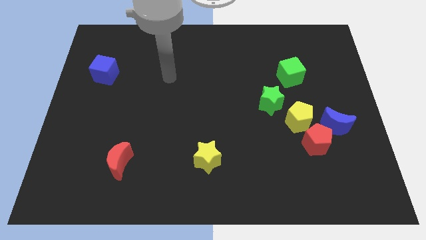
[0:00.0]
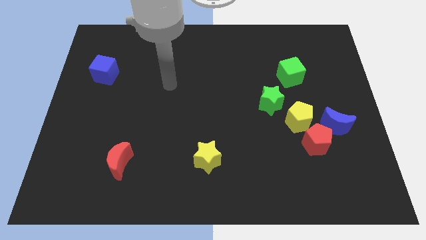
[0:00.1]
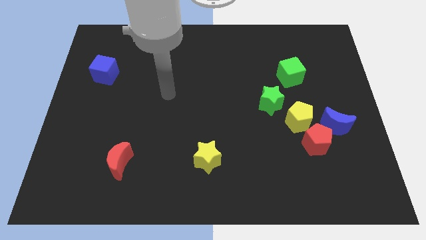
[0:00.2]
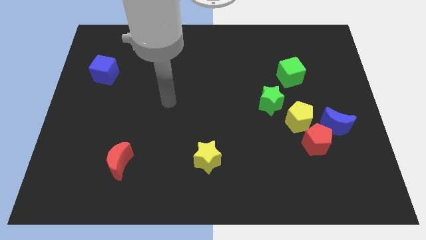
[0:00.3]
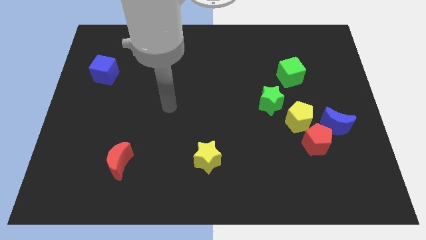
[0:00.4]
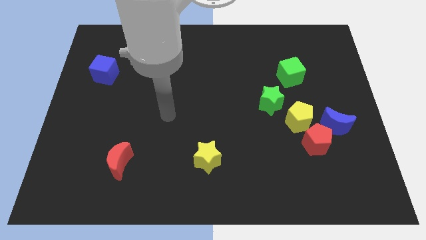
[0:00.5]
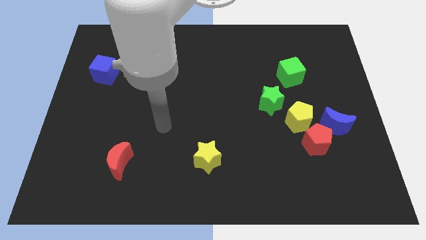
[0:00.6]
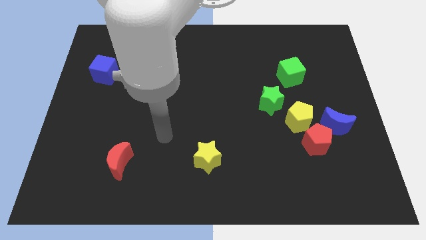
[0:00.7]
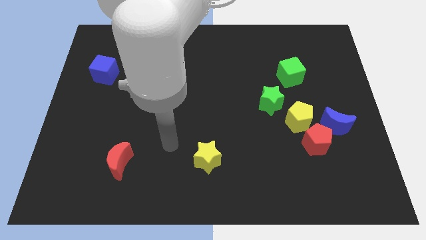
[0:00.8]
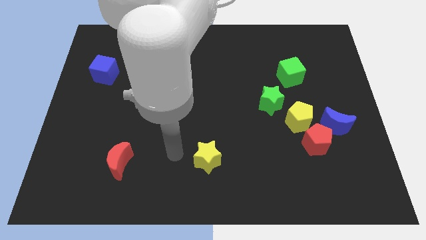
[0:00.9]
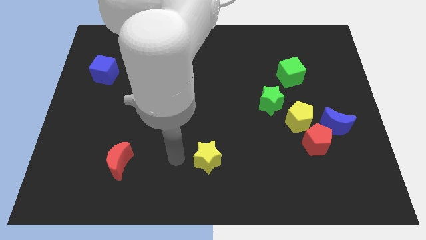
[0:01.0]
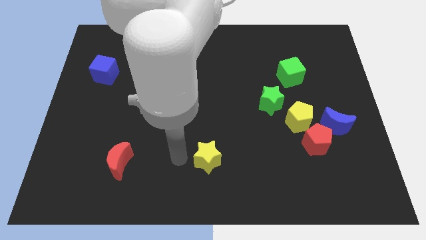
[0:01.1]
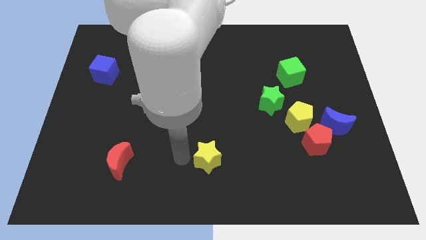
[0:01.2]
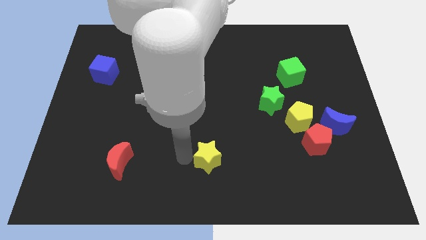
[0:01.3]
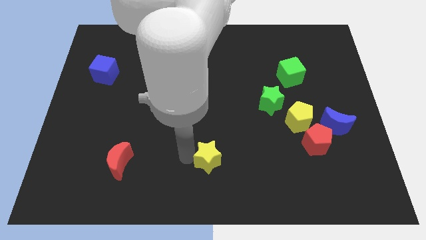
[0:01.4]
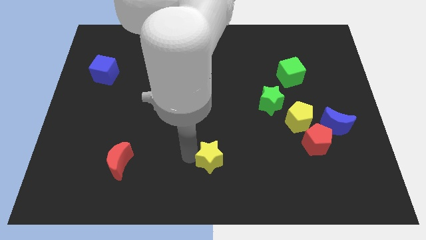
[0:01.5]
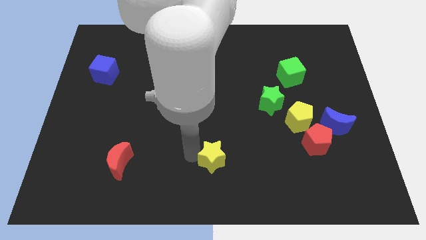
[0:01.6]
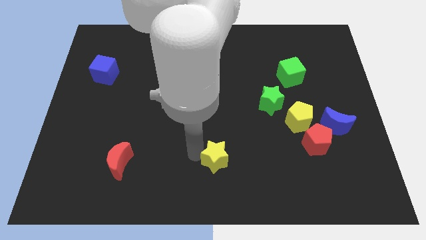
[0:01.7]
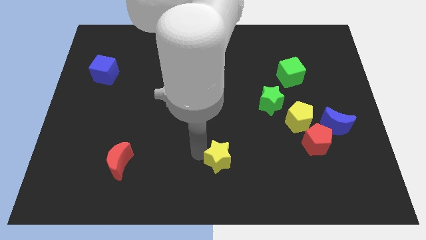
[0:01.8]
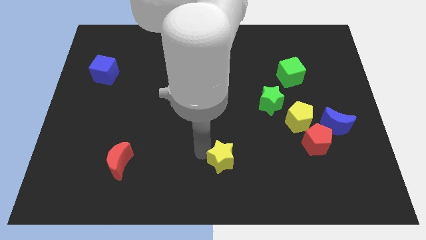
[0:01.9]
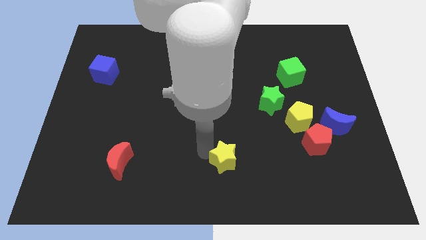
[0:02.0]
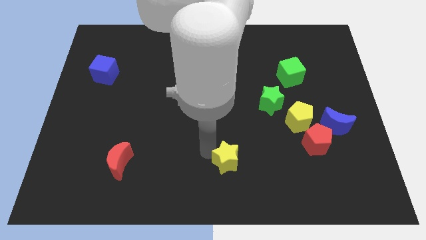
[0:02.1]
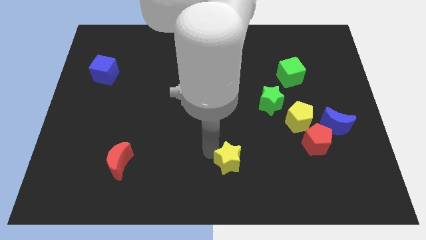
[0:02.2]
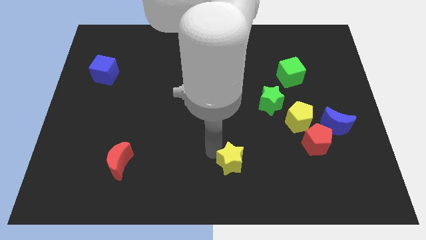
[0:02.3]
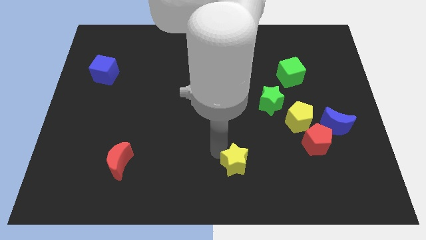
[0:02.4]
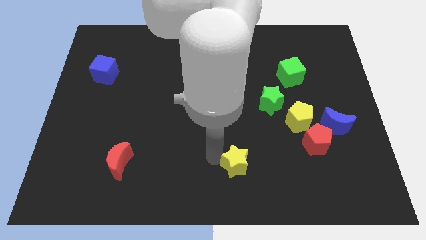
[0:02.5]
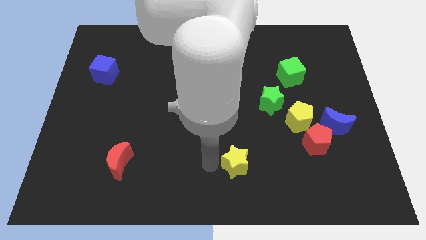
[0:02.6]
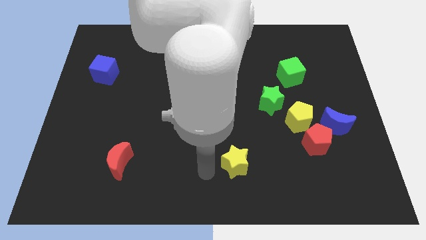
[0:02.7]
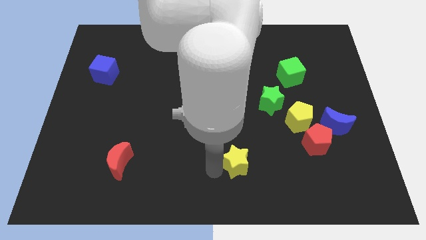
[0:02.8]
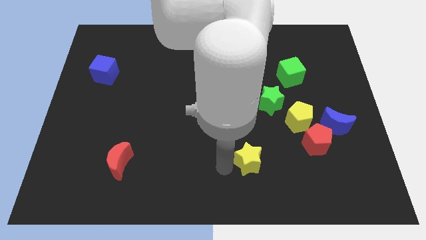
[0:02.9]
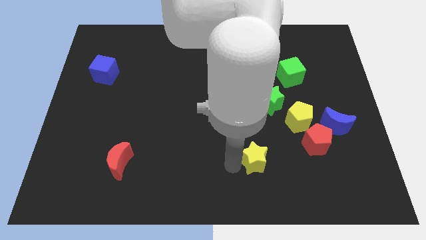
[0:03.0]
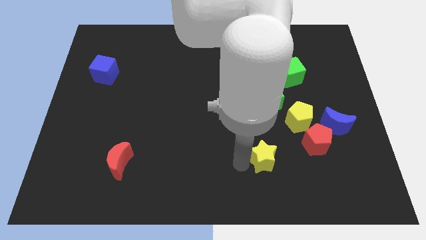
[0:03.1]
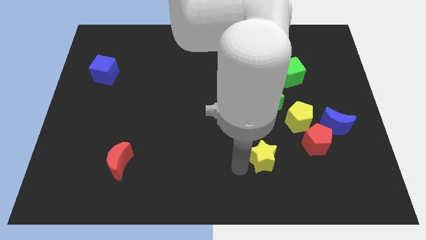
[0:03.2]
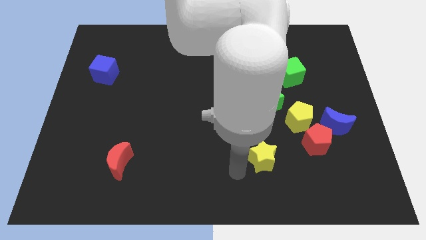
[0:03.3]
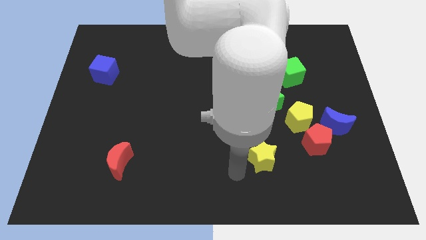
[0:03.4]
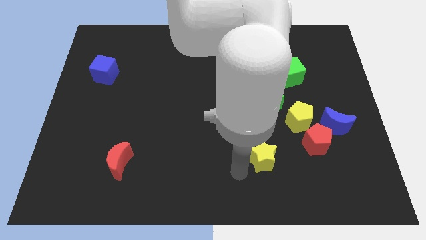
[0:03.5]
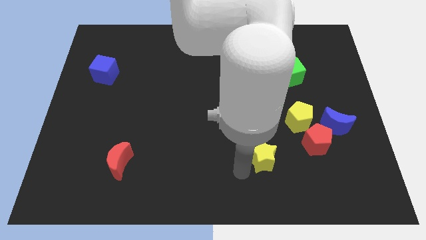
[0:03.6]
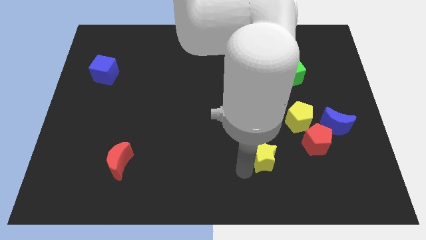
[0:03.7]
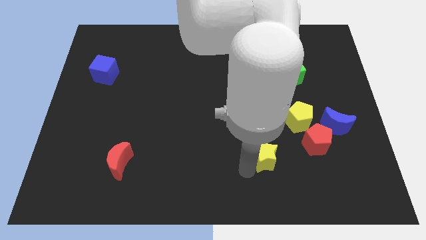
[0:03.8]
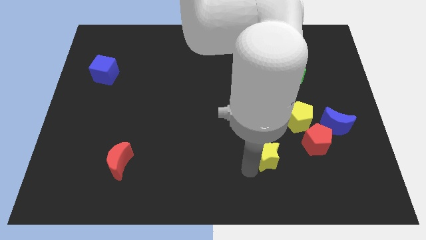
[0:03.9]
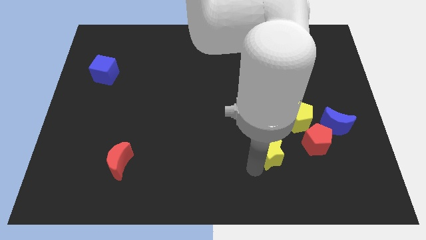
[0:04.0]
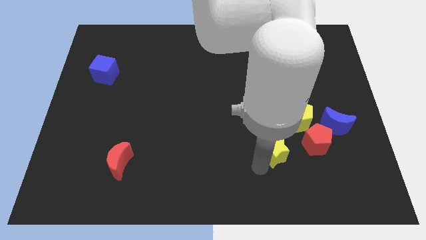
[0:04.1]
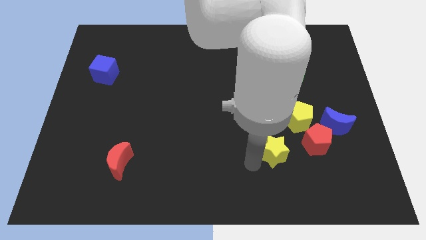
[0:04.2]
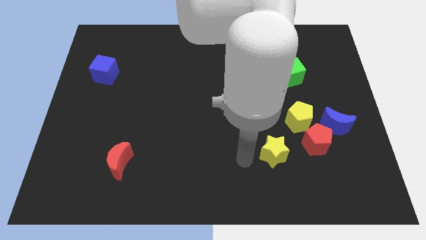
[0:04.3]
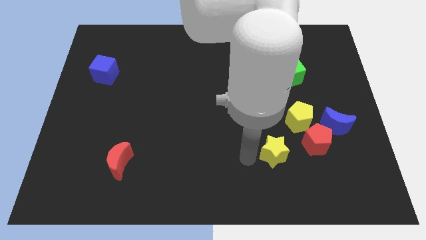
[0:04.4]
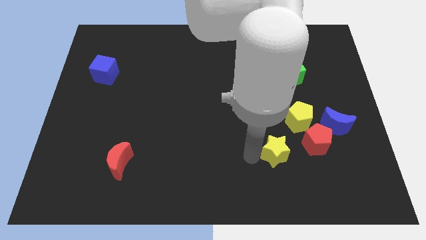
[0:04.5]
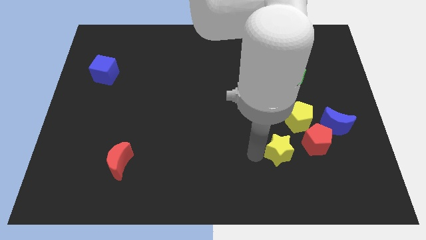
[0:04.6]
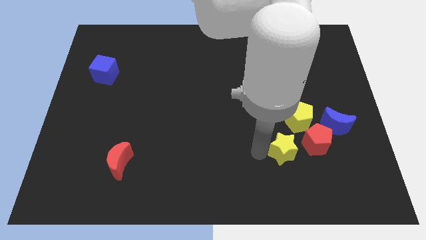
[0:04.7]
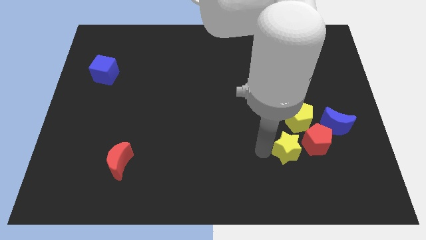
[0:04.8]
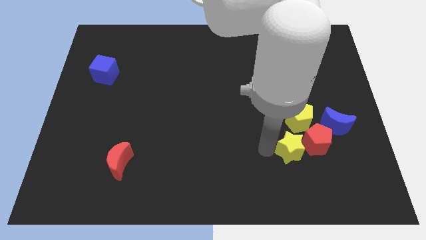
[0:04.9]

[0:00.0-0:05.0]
put the yellow star towards the red pentagon

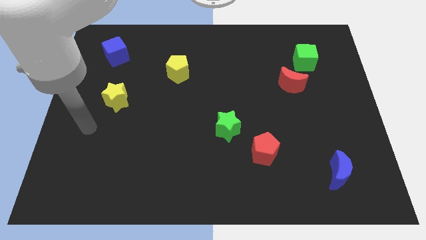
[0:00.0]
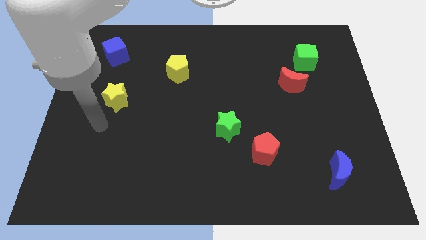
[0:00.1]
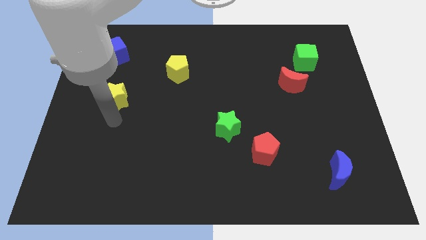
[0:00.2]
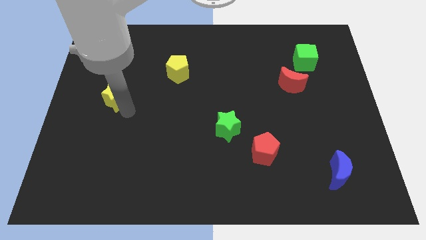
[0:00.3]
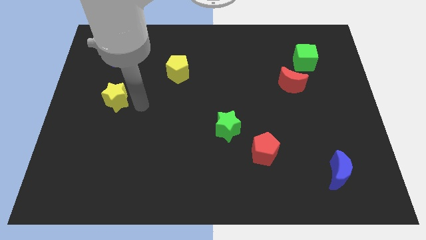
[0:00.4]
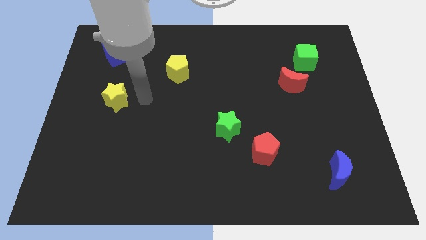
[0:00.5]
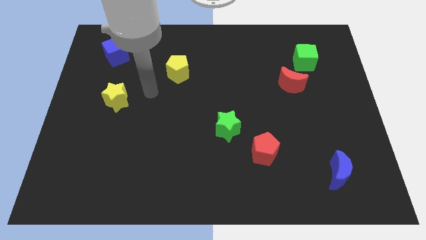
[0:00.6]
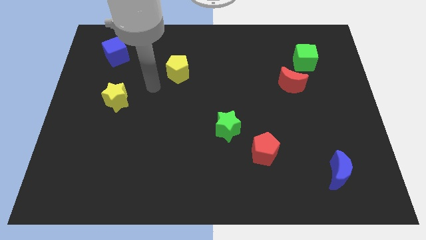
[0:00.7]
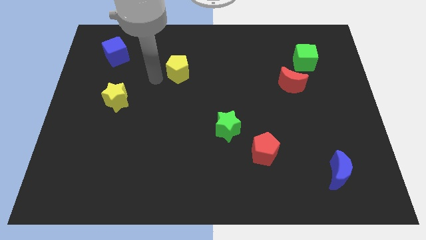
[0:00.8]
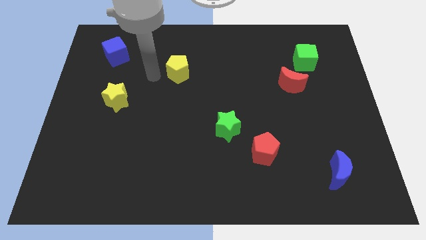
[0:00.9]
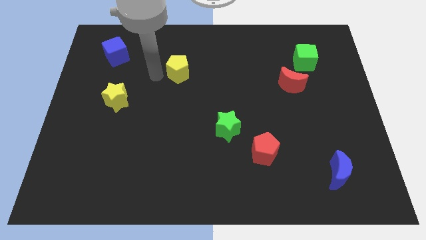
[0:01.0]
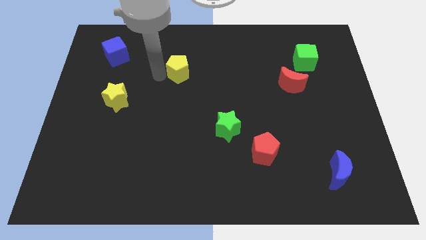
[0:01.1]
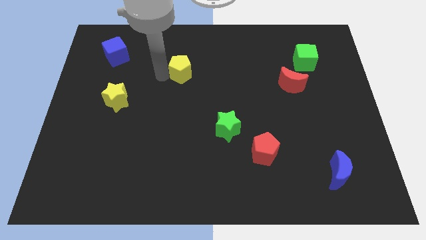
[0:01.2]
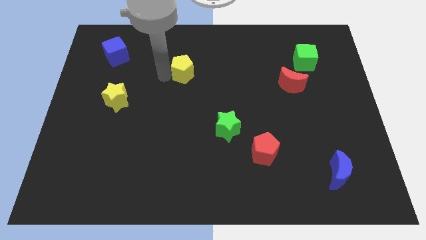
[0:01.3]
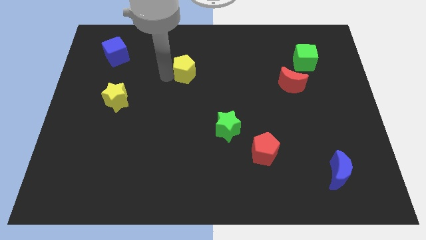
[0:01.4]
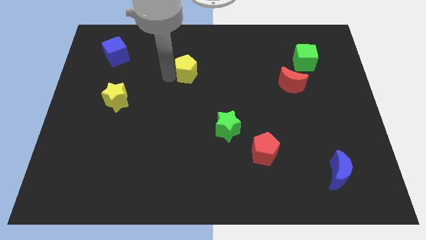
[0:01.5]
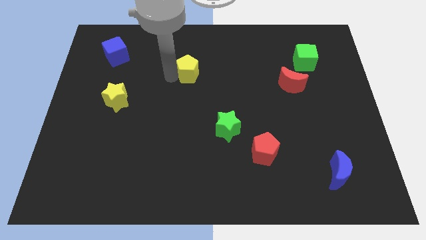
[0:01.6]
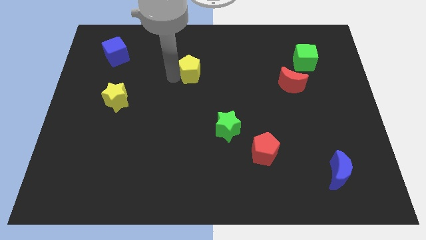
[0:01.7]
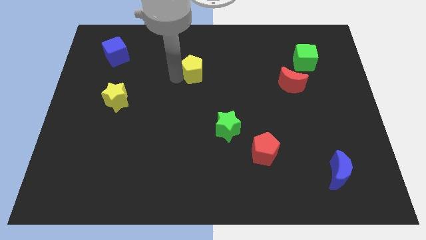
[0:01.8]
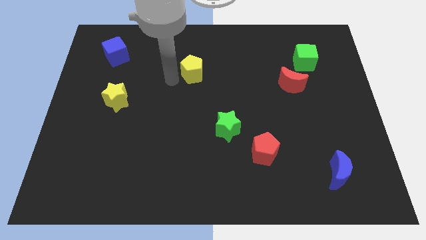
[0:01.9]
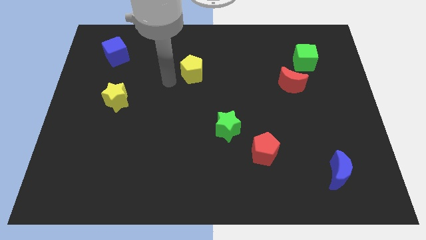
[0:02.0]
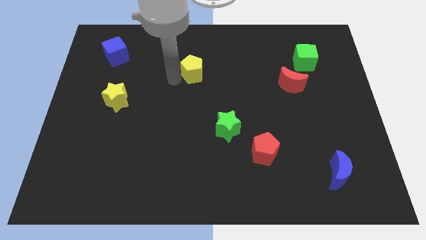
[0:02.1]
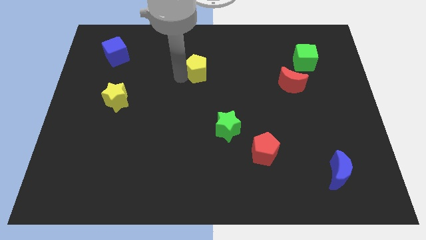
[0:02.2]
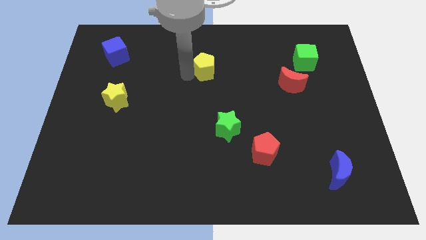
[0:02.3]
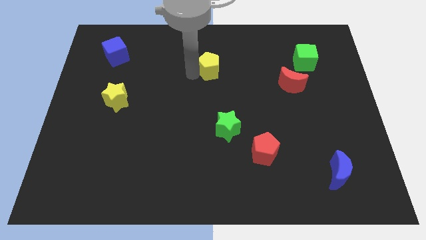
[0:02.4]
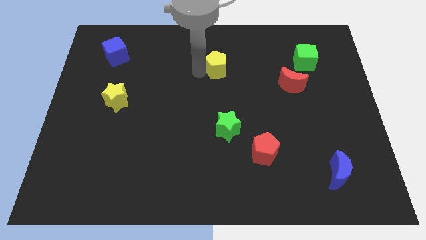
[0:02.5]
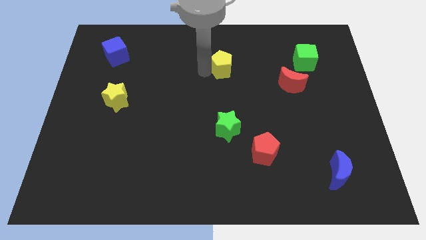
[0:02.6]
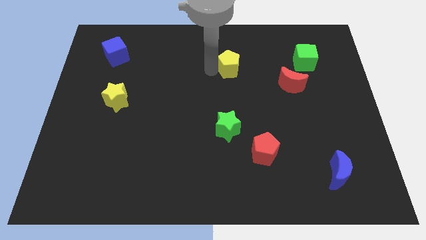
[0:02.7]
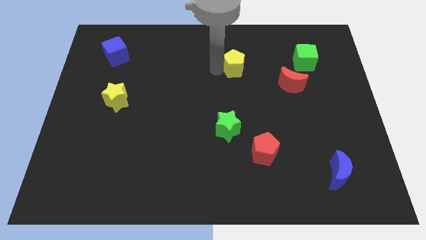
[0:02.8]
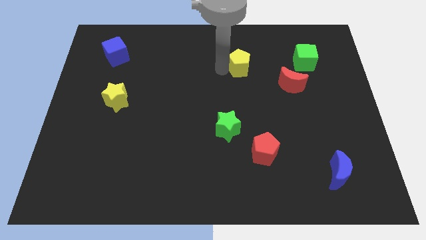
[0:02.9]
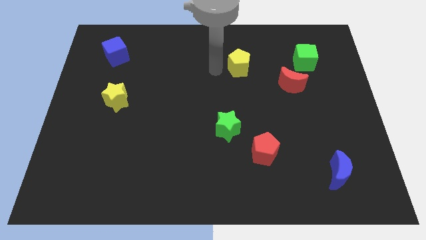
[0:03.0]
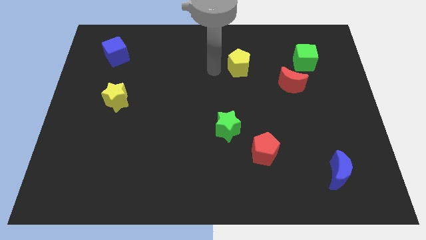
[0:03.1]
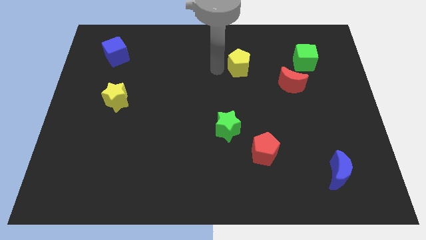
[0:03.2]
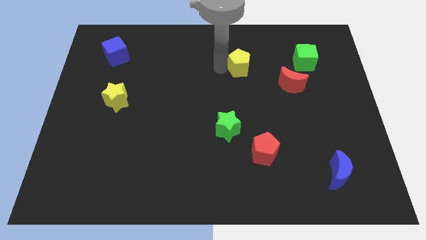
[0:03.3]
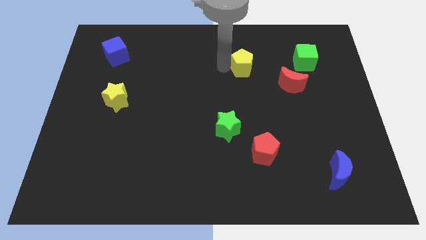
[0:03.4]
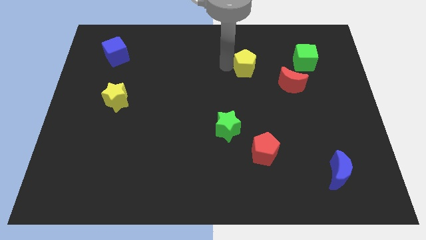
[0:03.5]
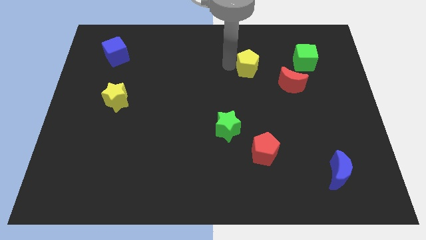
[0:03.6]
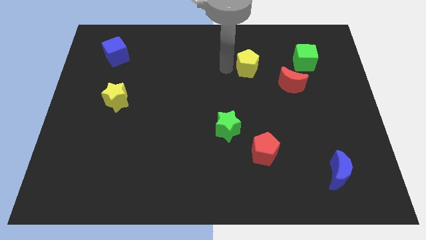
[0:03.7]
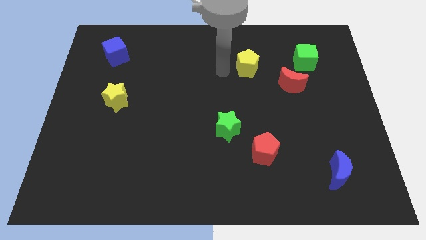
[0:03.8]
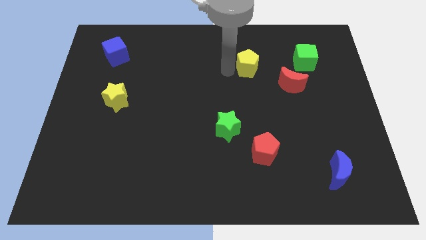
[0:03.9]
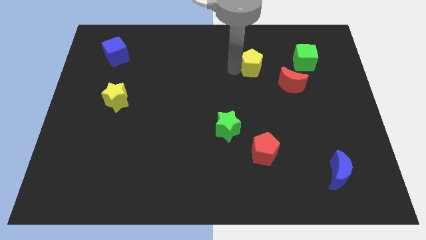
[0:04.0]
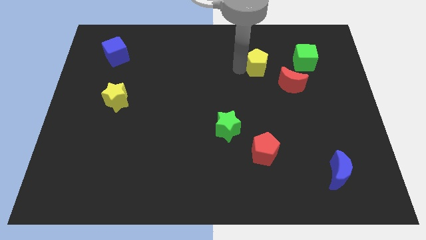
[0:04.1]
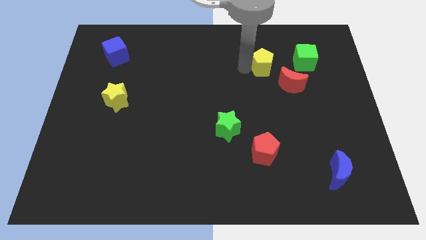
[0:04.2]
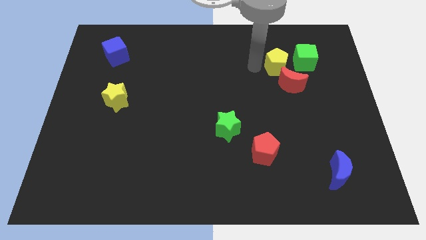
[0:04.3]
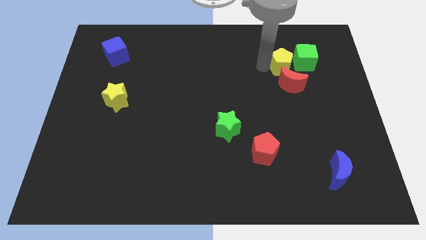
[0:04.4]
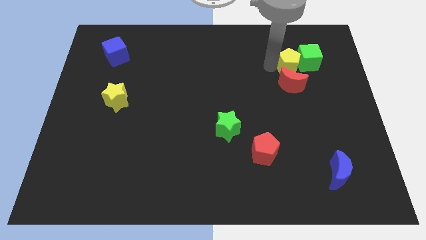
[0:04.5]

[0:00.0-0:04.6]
slide the yellow pentagon towards the green cube
